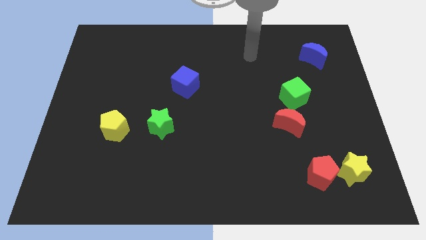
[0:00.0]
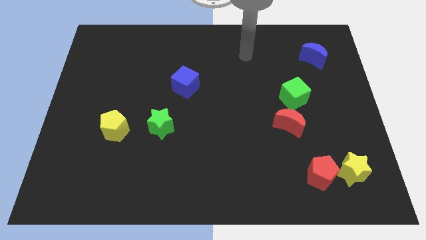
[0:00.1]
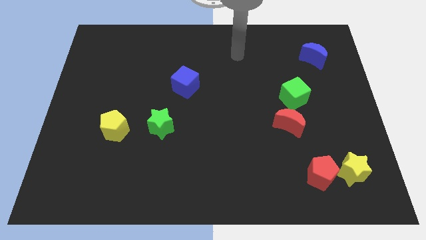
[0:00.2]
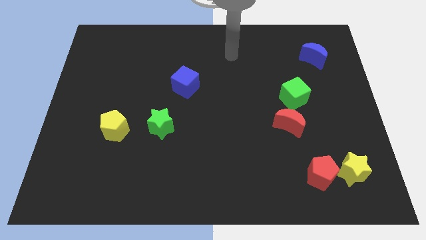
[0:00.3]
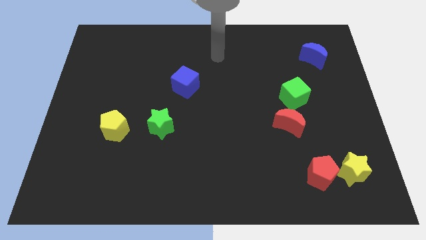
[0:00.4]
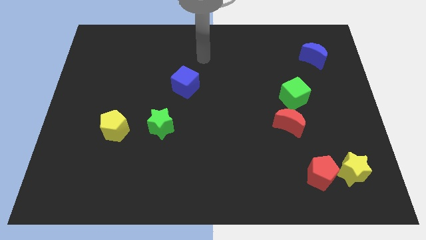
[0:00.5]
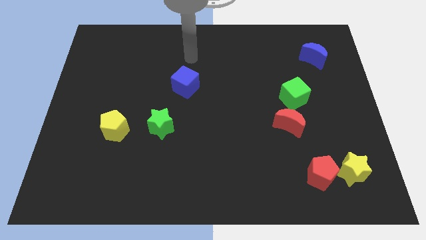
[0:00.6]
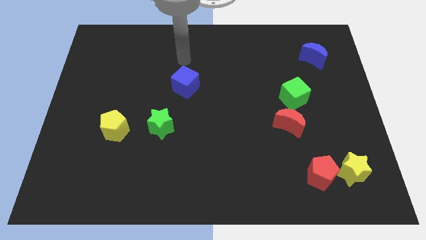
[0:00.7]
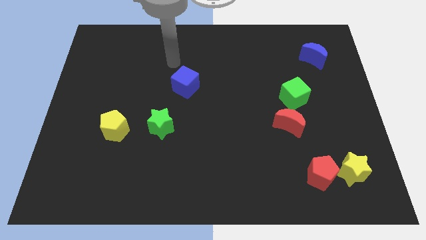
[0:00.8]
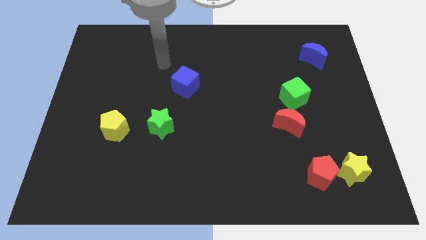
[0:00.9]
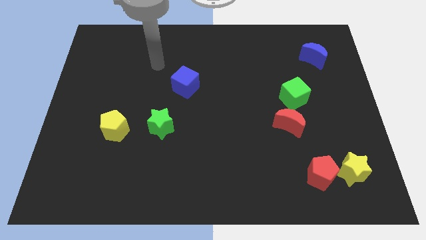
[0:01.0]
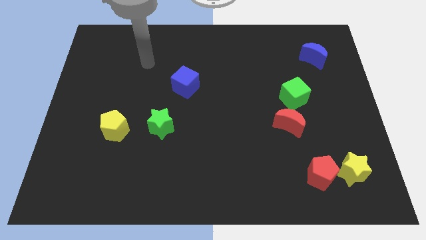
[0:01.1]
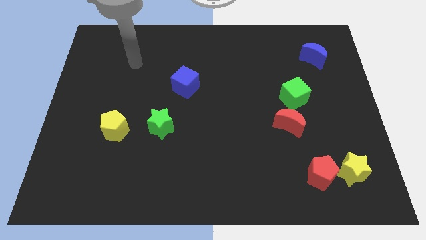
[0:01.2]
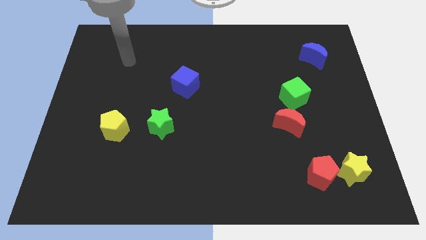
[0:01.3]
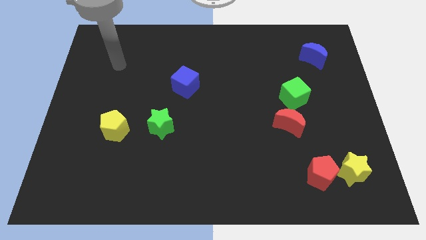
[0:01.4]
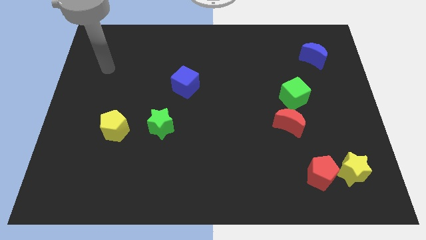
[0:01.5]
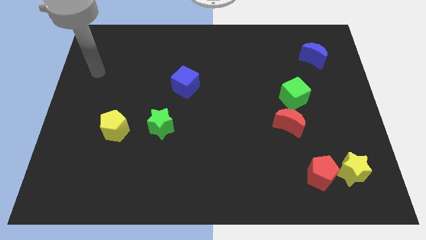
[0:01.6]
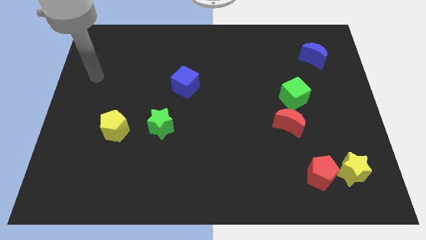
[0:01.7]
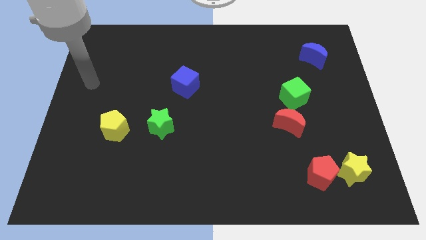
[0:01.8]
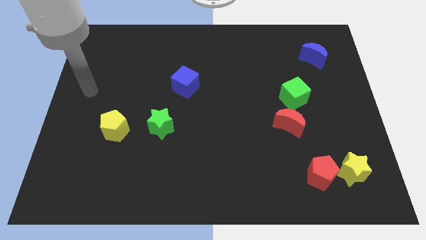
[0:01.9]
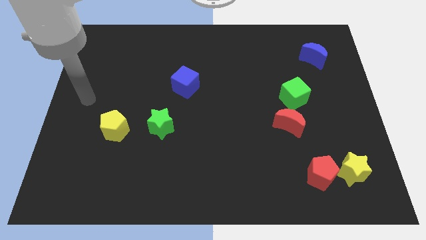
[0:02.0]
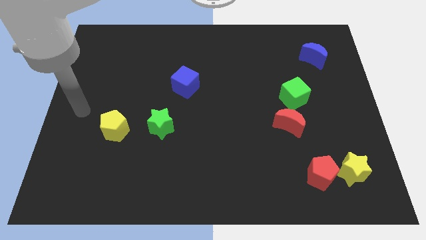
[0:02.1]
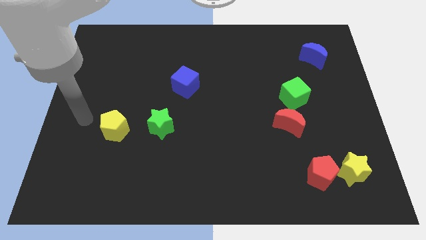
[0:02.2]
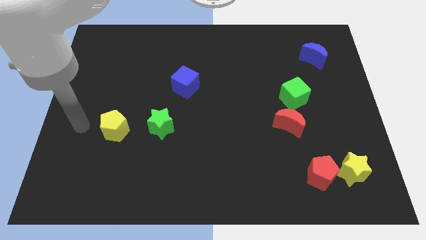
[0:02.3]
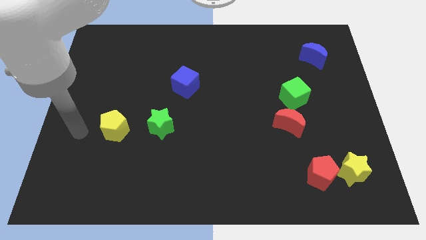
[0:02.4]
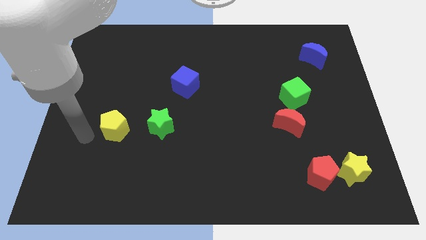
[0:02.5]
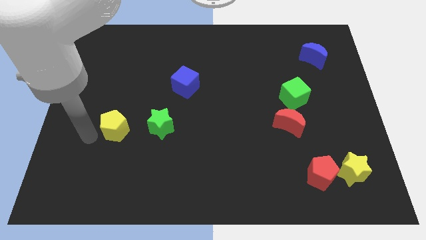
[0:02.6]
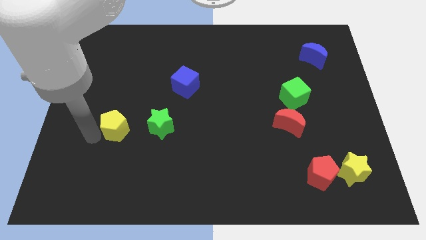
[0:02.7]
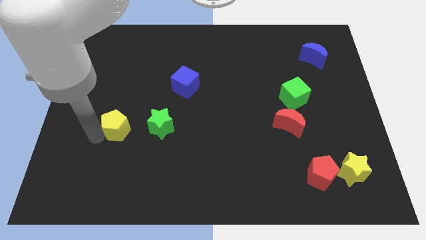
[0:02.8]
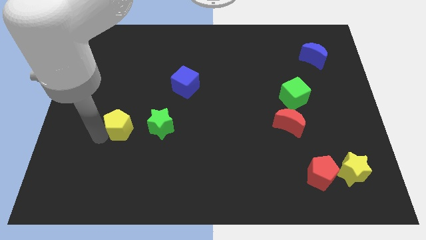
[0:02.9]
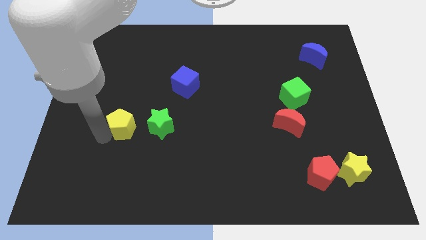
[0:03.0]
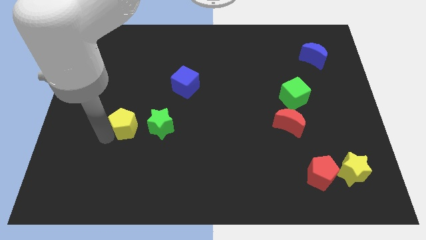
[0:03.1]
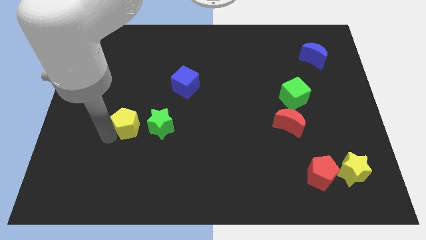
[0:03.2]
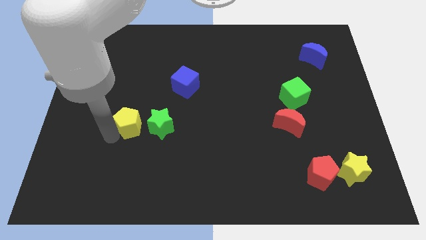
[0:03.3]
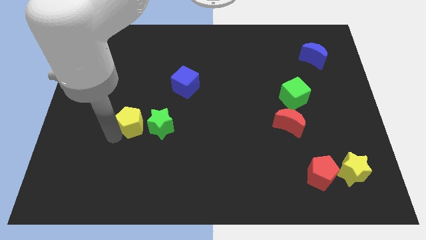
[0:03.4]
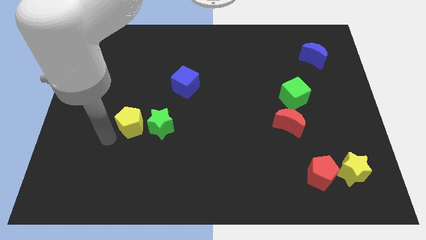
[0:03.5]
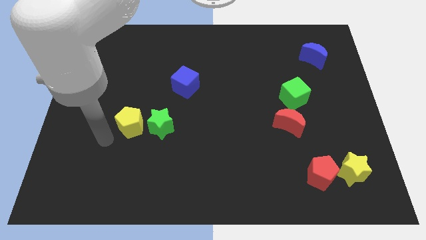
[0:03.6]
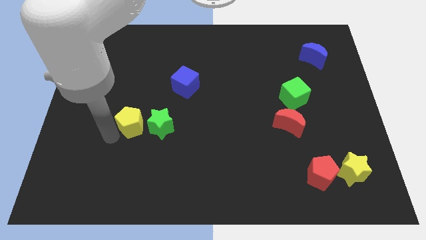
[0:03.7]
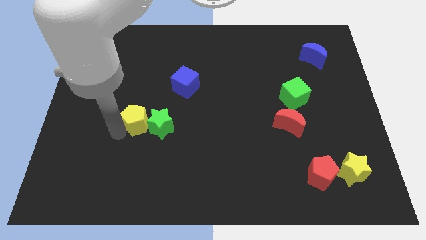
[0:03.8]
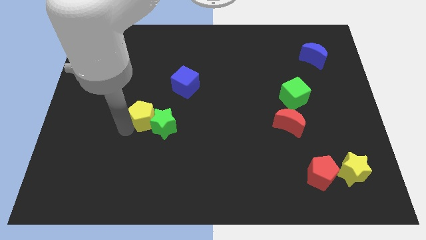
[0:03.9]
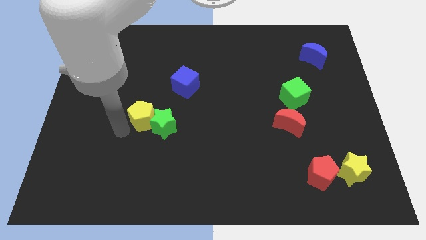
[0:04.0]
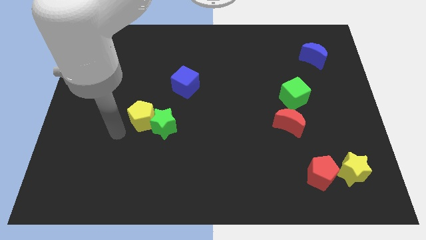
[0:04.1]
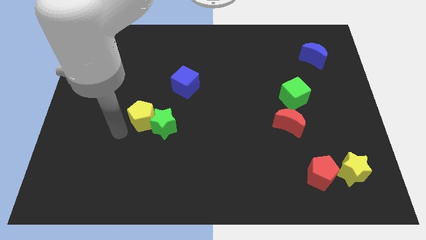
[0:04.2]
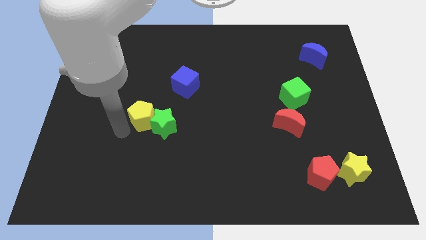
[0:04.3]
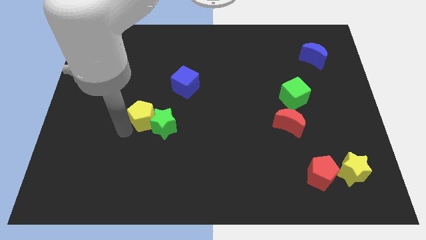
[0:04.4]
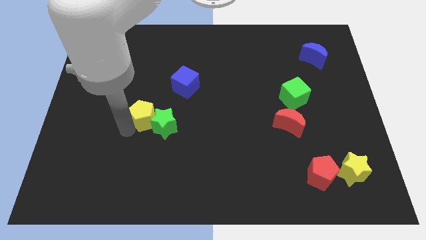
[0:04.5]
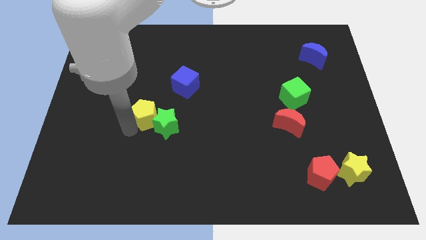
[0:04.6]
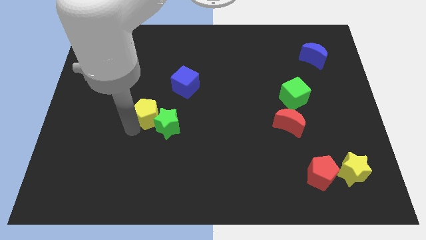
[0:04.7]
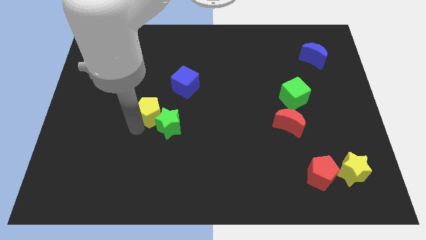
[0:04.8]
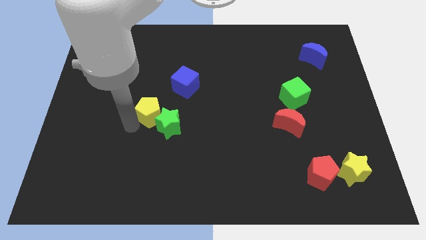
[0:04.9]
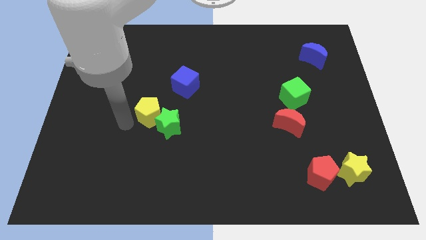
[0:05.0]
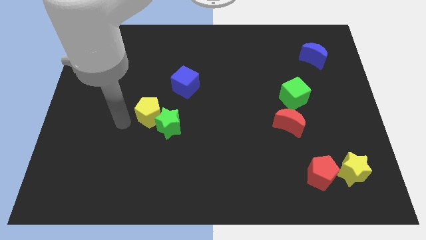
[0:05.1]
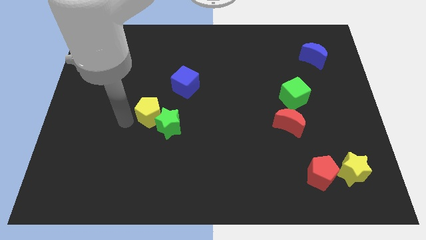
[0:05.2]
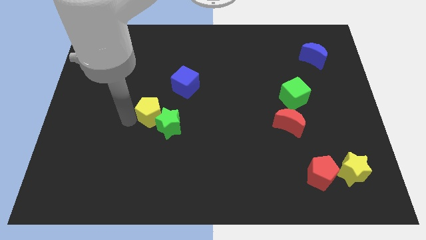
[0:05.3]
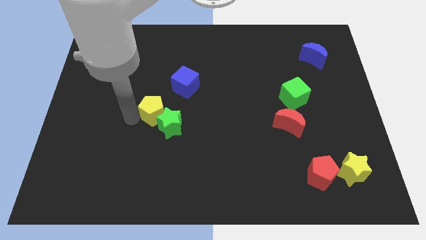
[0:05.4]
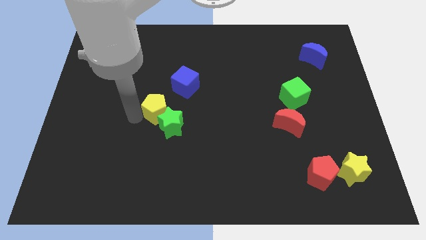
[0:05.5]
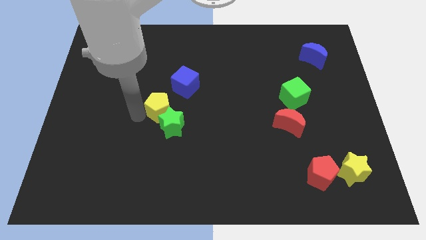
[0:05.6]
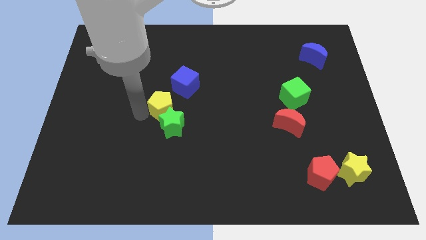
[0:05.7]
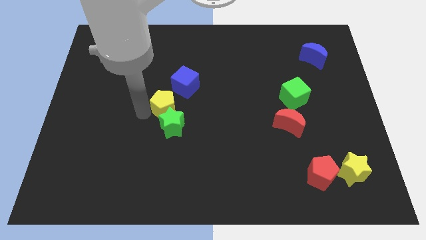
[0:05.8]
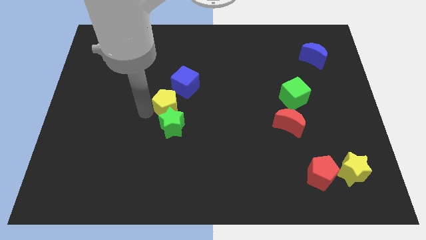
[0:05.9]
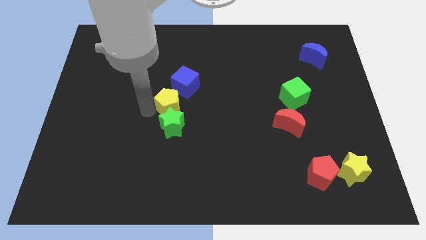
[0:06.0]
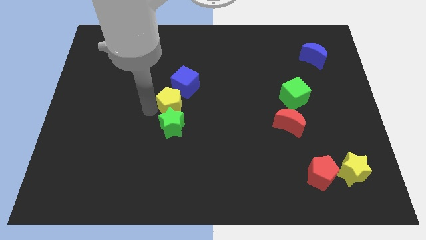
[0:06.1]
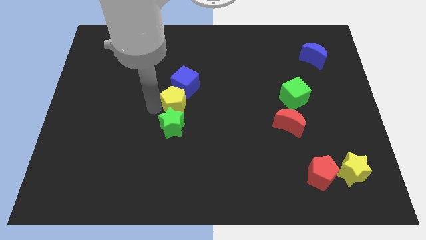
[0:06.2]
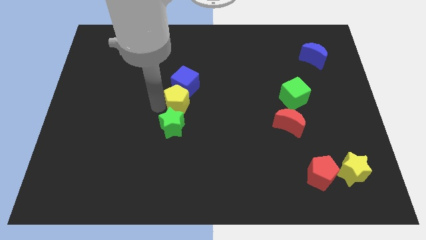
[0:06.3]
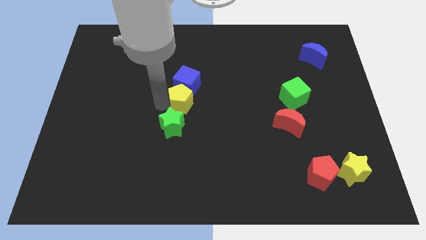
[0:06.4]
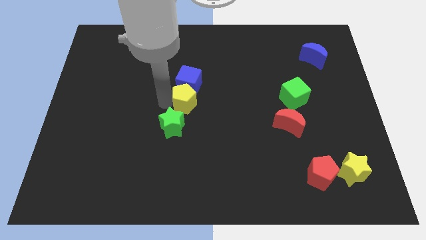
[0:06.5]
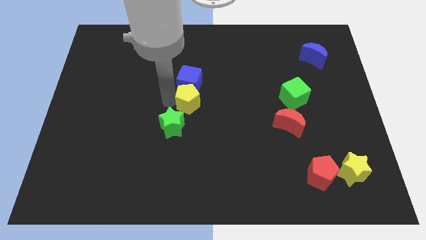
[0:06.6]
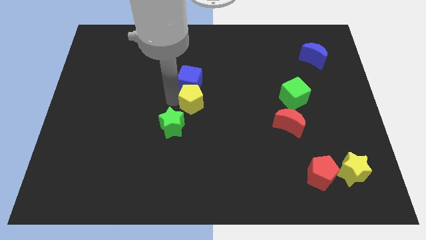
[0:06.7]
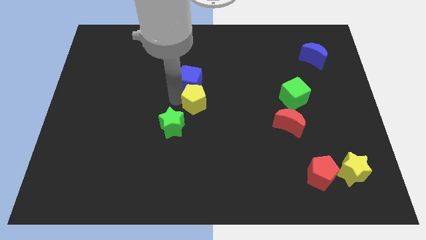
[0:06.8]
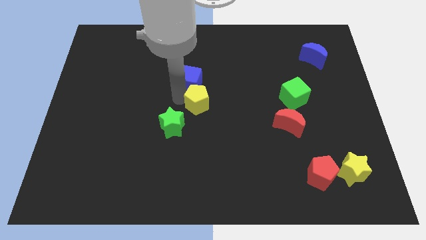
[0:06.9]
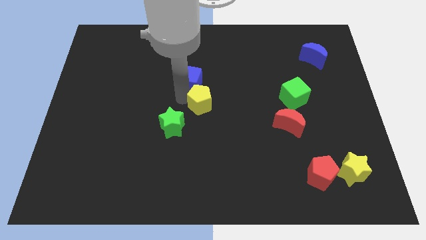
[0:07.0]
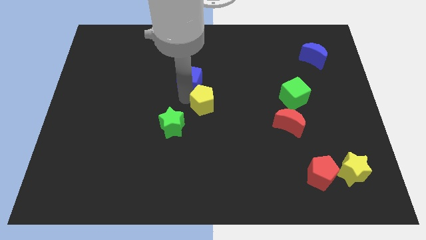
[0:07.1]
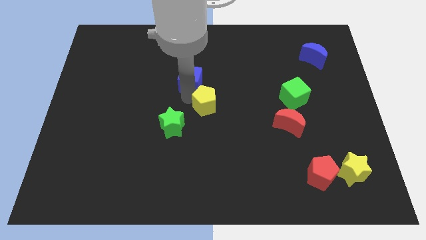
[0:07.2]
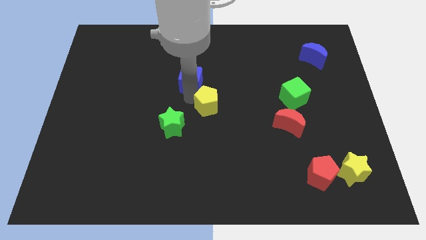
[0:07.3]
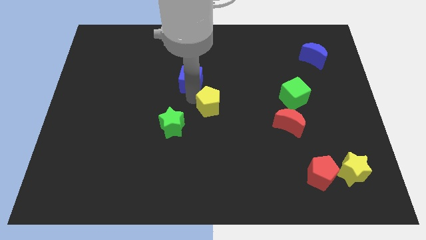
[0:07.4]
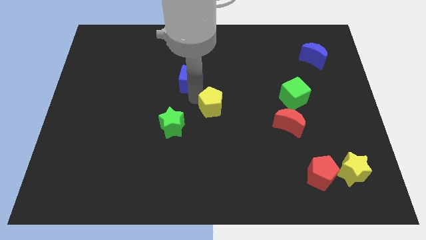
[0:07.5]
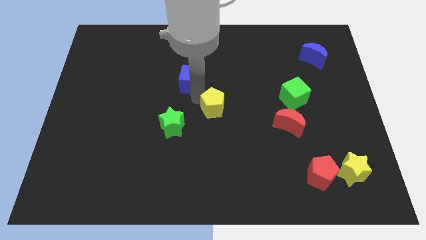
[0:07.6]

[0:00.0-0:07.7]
push the yellow pentagon right
